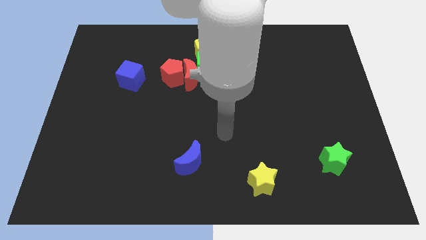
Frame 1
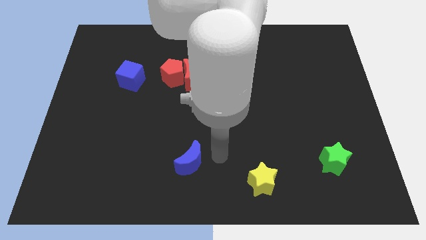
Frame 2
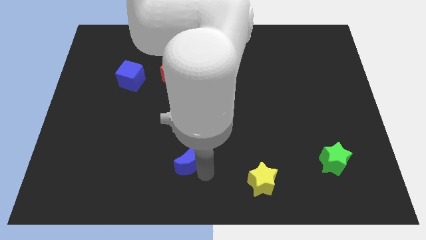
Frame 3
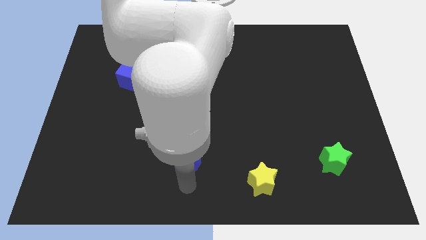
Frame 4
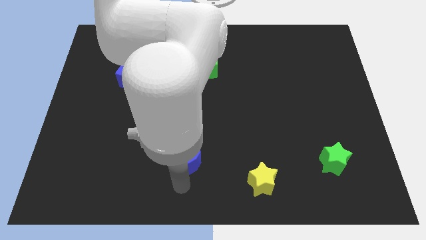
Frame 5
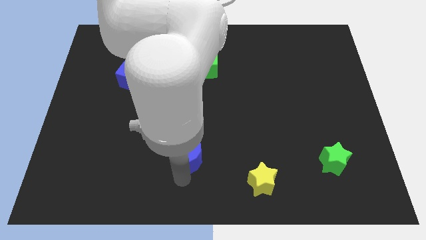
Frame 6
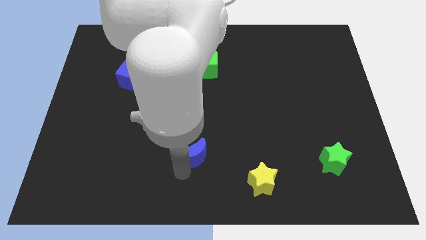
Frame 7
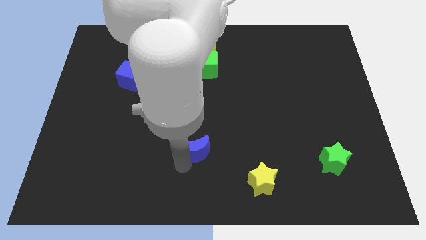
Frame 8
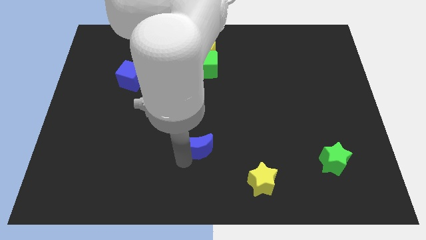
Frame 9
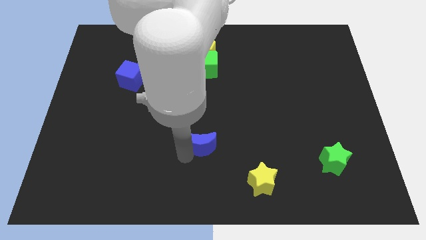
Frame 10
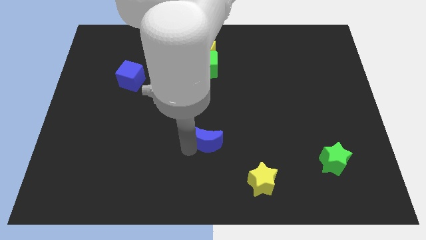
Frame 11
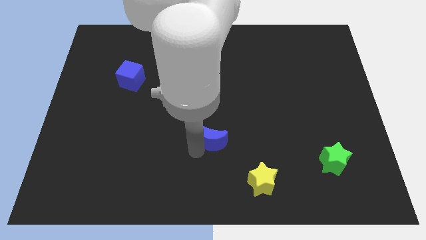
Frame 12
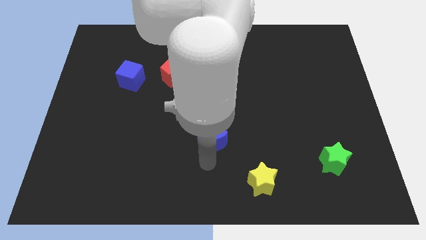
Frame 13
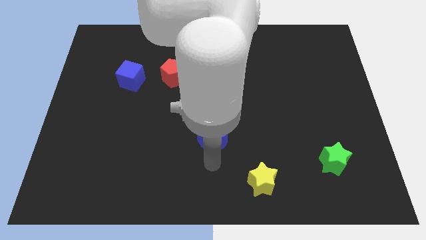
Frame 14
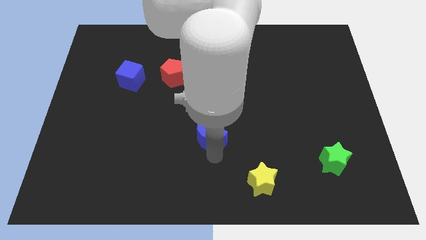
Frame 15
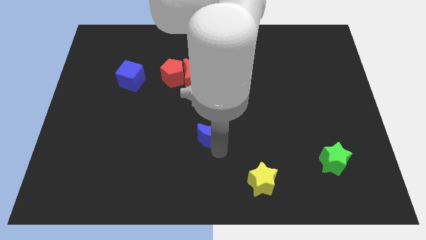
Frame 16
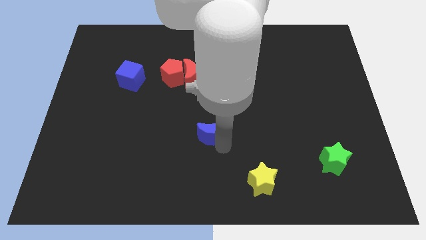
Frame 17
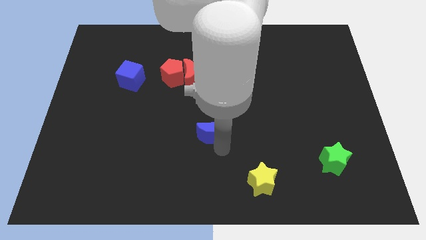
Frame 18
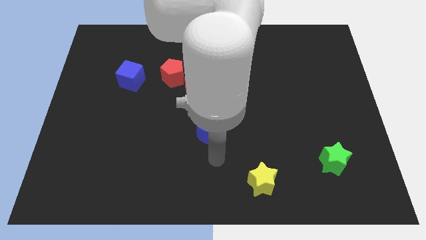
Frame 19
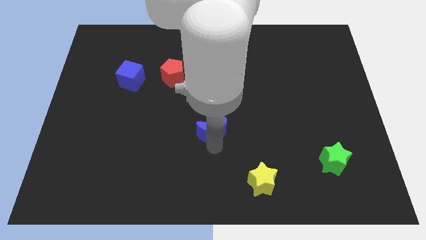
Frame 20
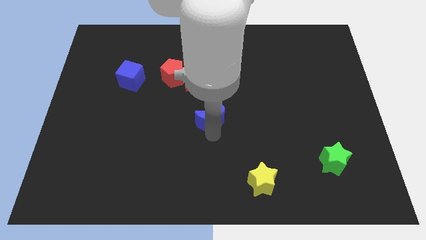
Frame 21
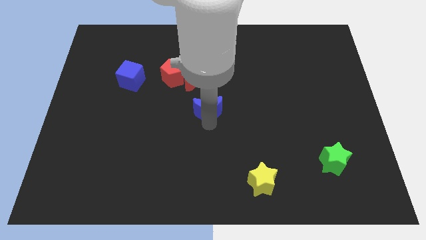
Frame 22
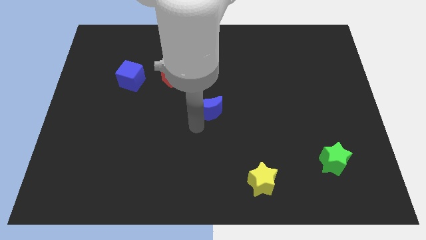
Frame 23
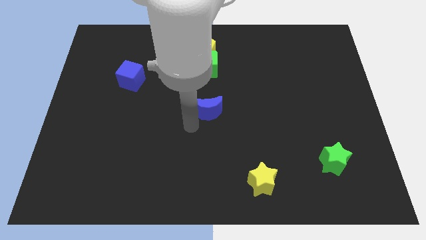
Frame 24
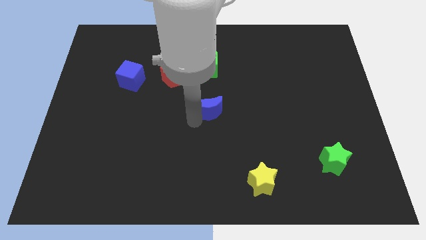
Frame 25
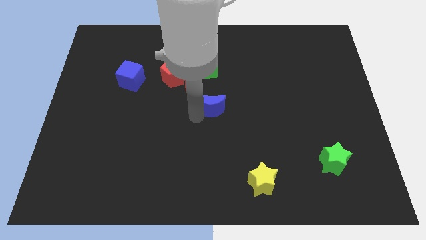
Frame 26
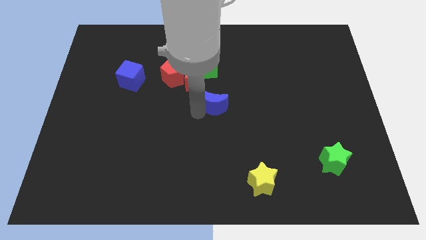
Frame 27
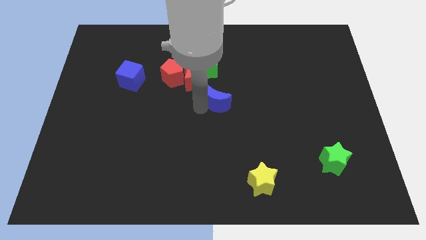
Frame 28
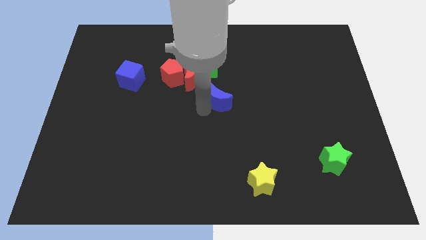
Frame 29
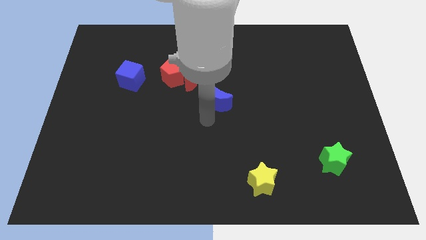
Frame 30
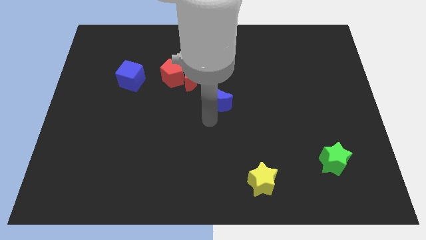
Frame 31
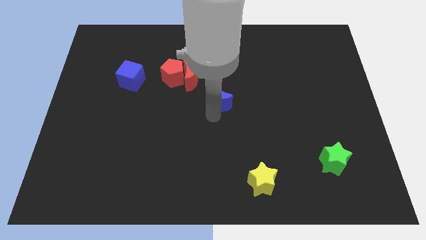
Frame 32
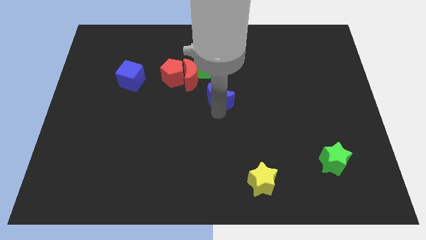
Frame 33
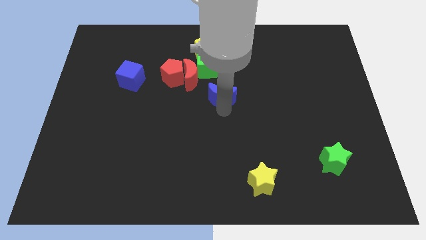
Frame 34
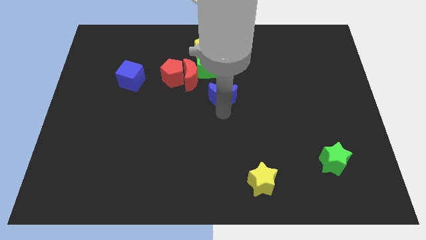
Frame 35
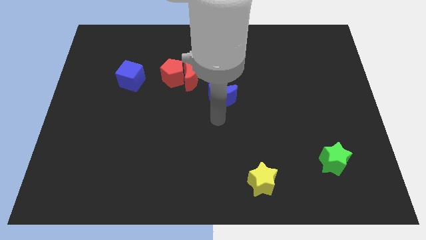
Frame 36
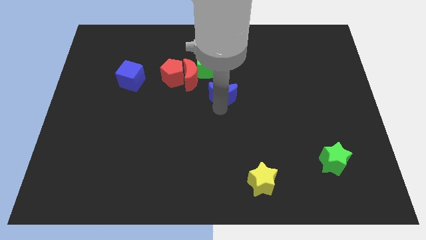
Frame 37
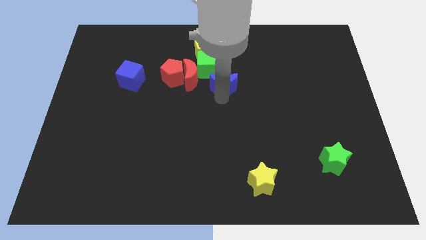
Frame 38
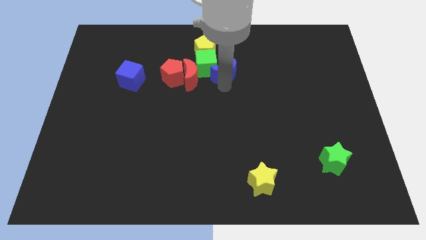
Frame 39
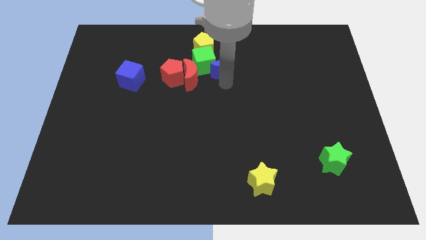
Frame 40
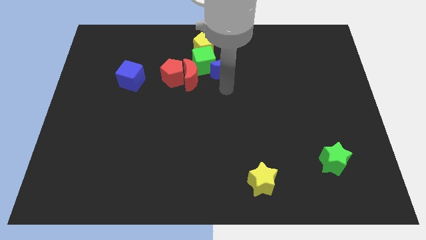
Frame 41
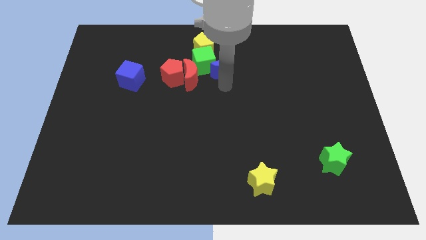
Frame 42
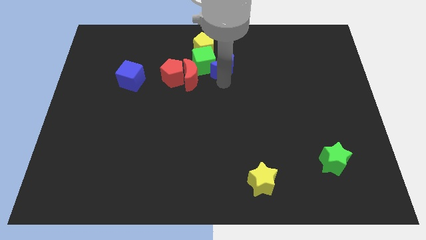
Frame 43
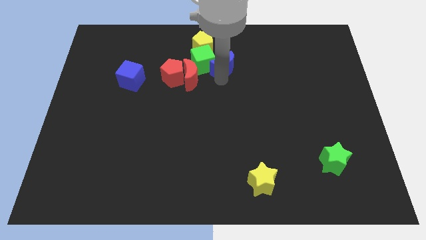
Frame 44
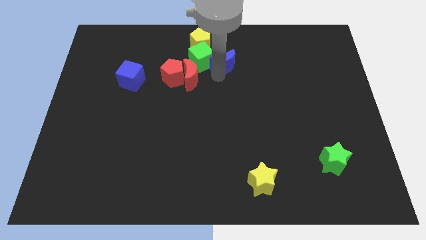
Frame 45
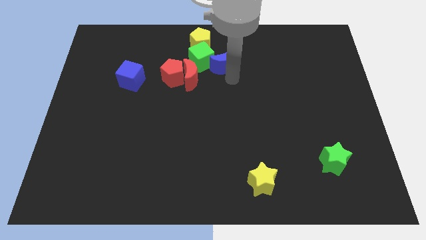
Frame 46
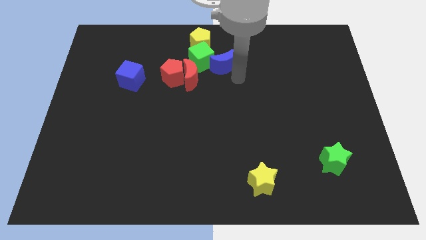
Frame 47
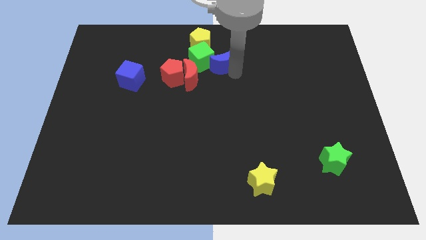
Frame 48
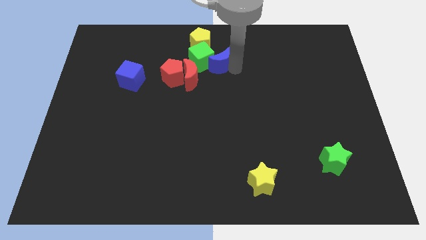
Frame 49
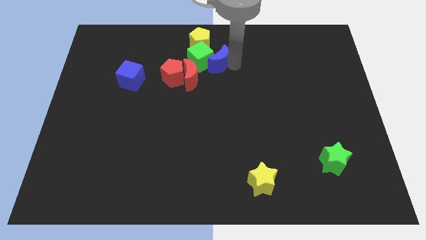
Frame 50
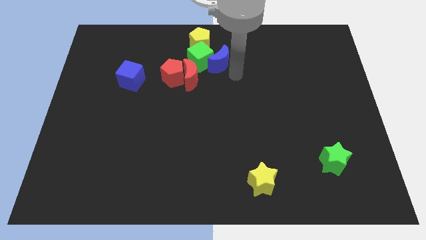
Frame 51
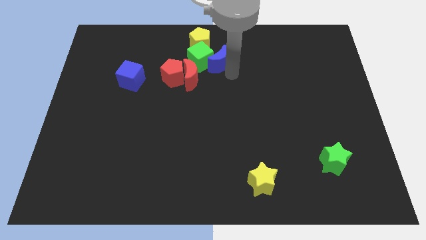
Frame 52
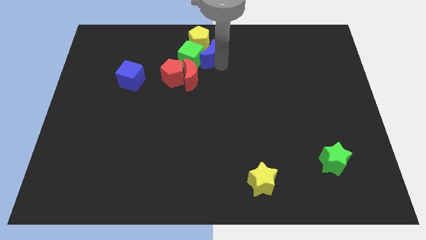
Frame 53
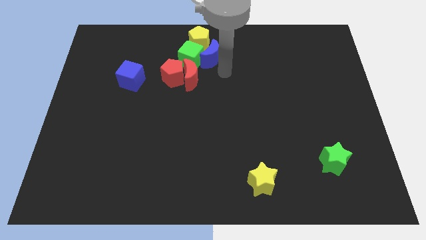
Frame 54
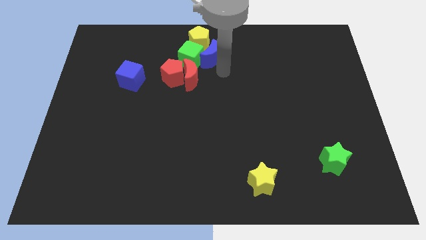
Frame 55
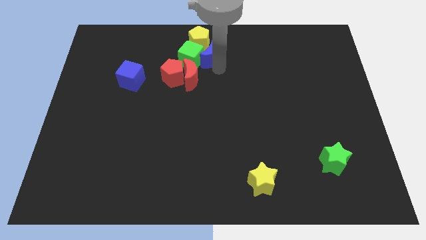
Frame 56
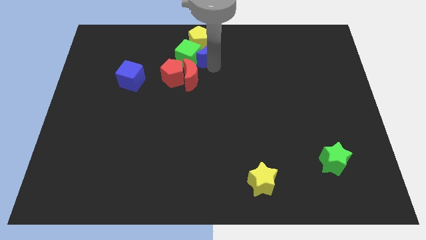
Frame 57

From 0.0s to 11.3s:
move the blue moon towards the yellow pentagon

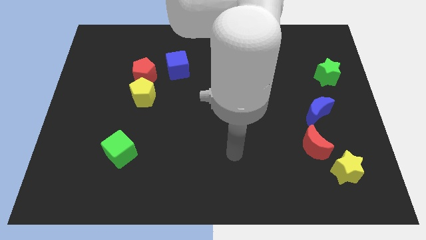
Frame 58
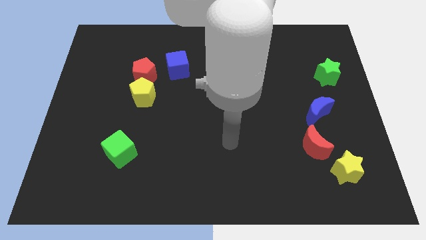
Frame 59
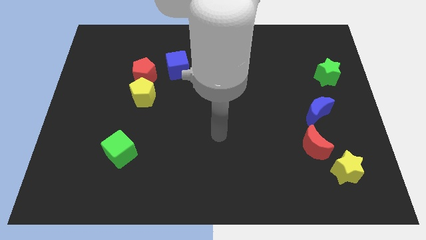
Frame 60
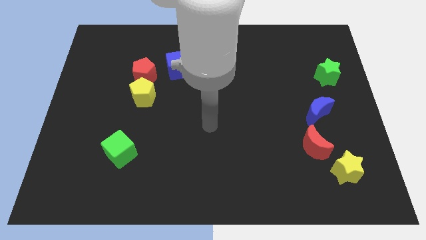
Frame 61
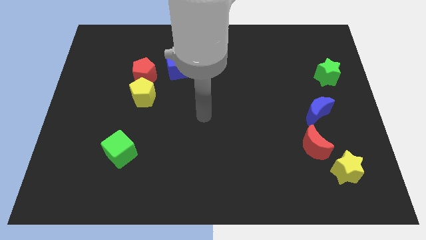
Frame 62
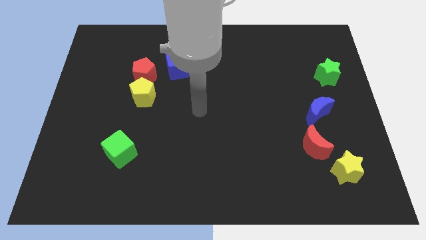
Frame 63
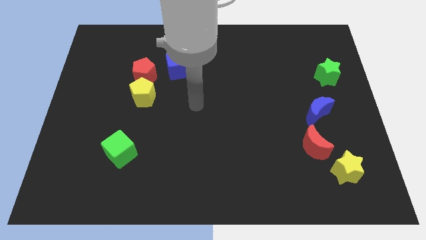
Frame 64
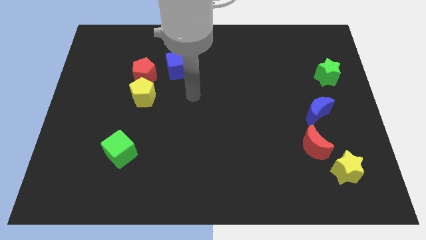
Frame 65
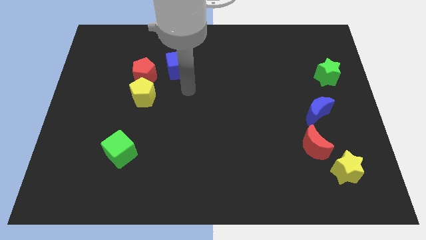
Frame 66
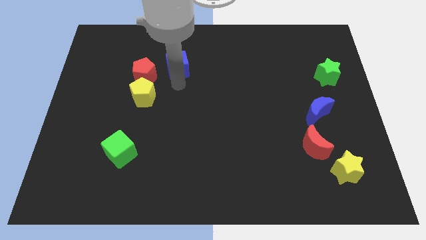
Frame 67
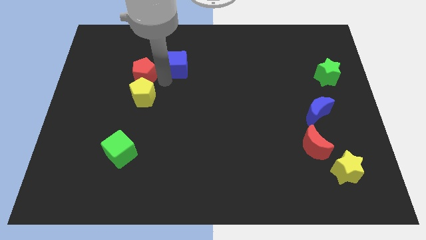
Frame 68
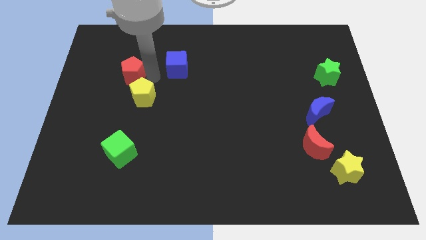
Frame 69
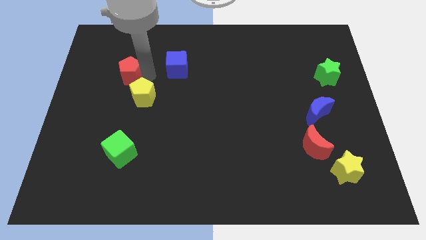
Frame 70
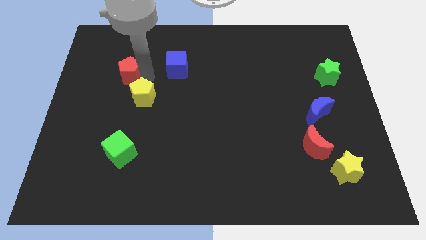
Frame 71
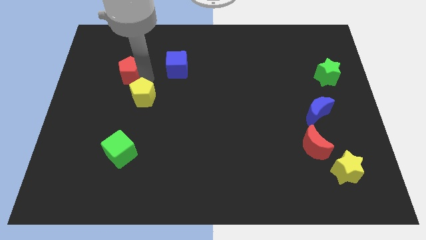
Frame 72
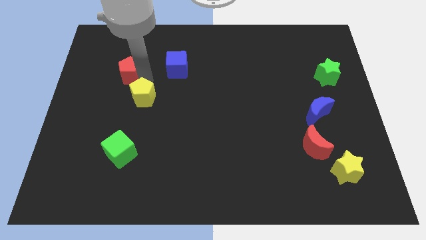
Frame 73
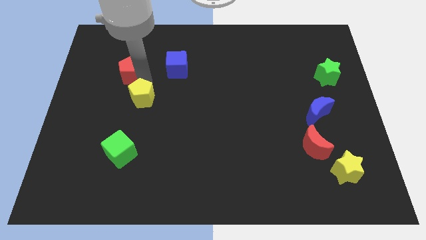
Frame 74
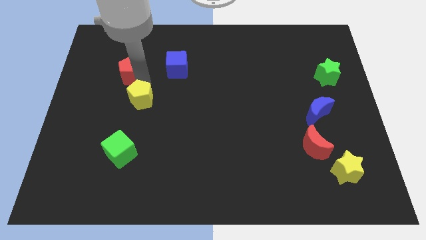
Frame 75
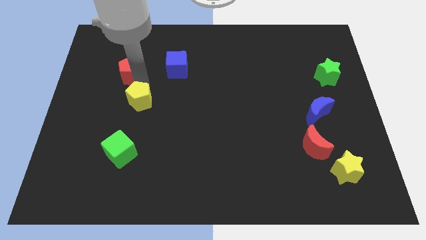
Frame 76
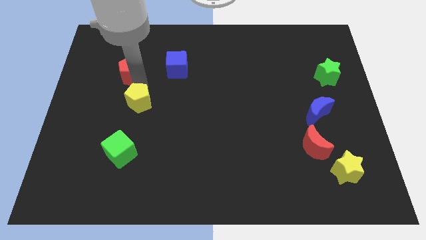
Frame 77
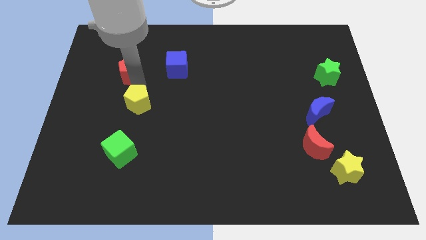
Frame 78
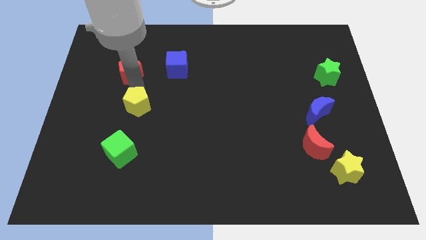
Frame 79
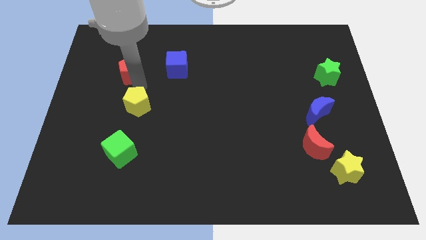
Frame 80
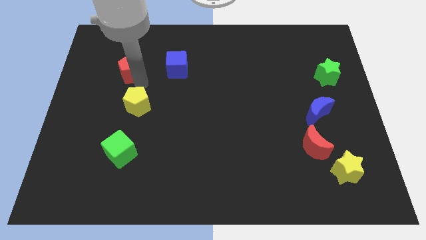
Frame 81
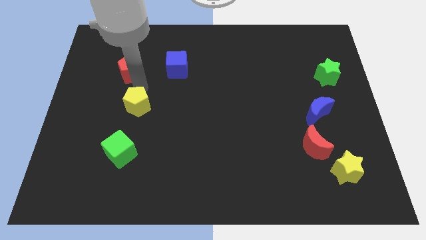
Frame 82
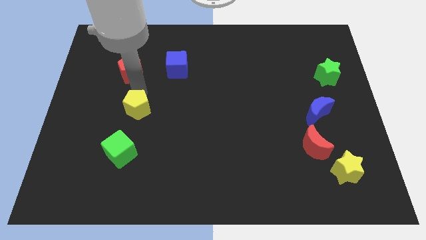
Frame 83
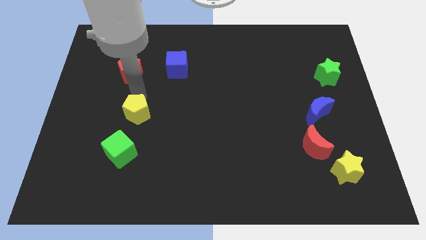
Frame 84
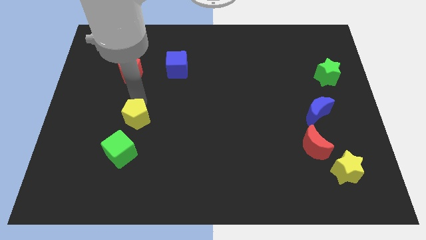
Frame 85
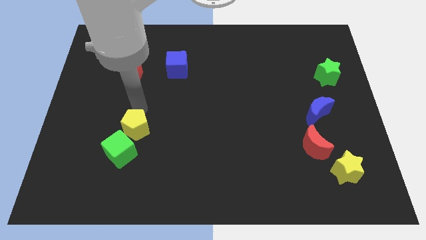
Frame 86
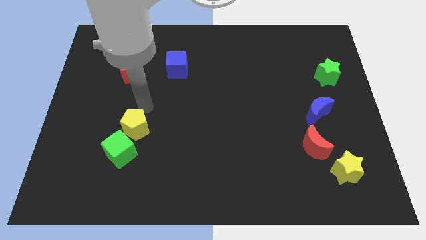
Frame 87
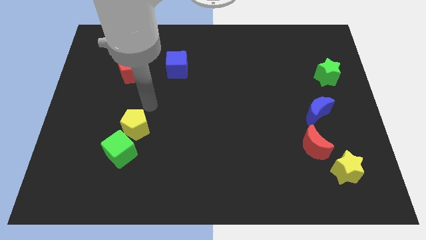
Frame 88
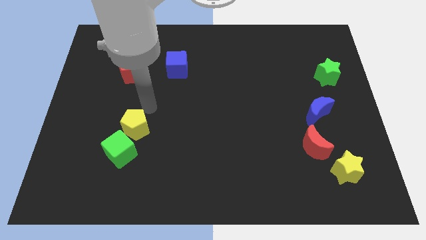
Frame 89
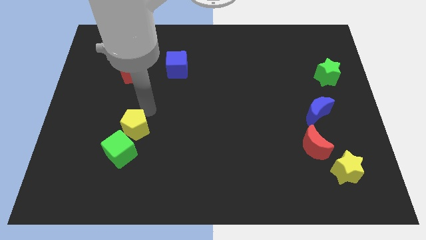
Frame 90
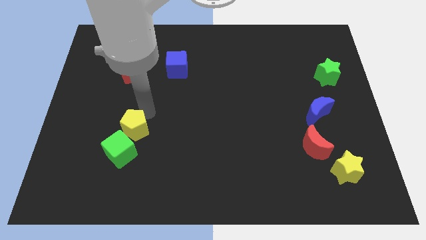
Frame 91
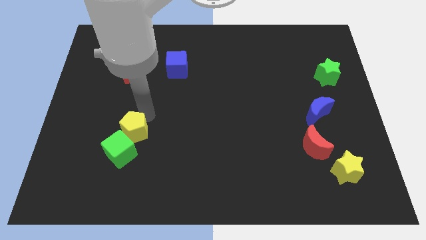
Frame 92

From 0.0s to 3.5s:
put the yellow pentagon towards the green cube
